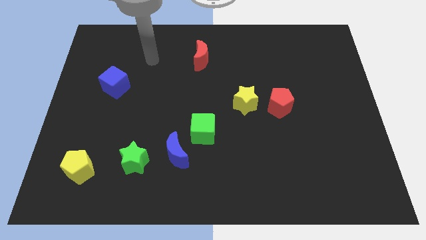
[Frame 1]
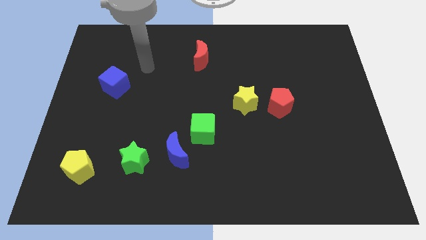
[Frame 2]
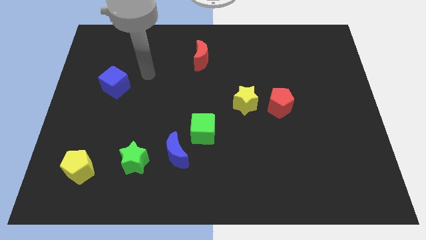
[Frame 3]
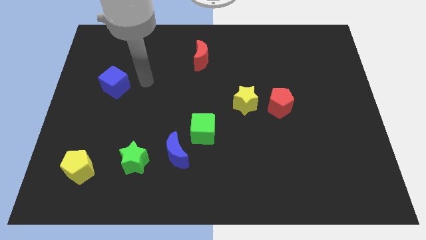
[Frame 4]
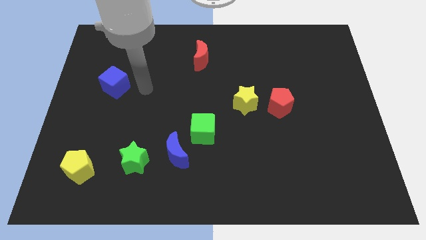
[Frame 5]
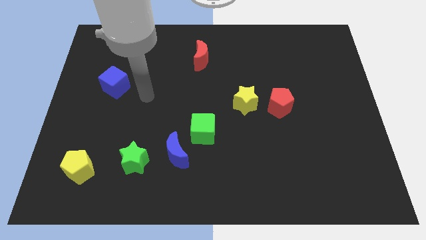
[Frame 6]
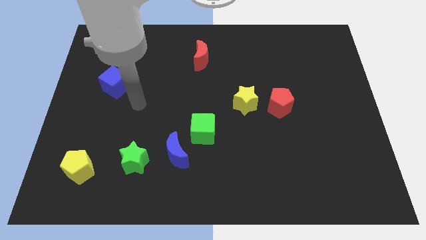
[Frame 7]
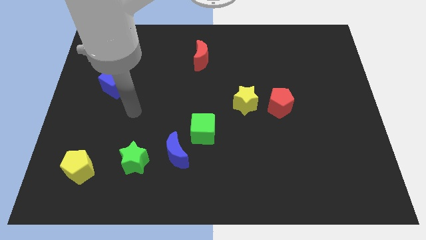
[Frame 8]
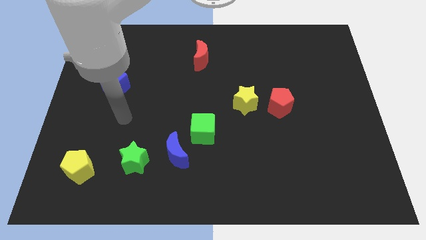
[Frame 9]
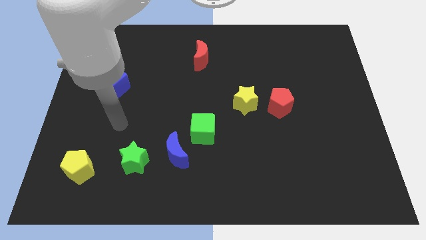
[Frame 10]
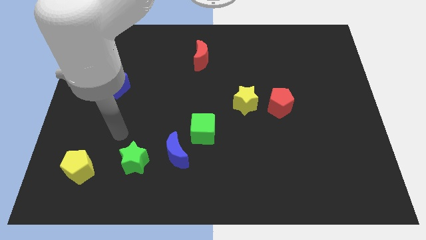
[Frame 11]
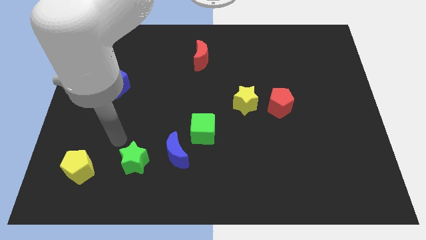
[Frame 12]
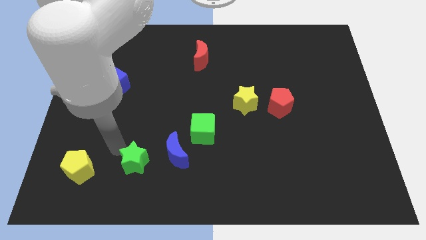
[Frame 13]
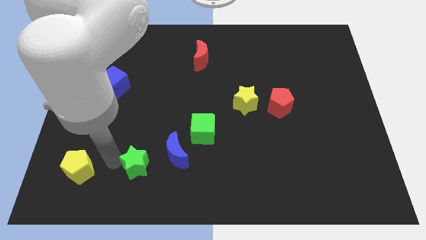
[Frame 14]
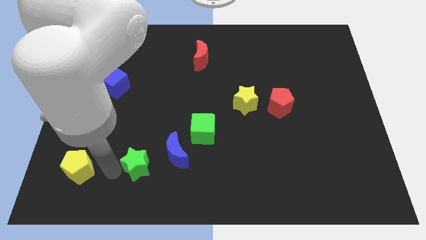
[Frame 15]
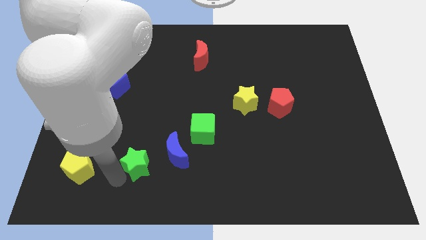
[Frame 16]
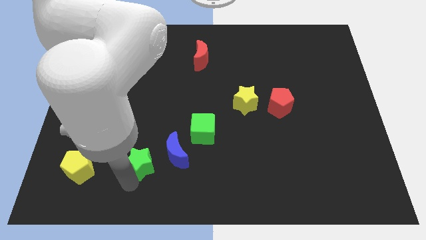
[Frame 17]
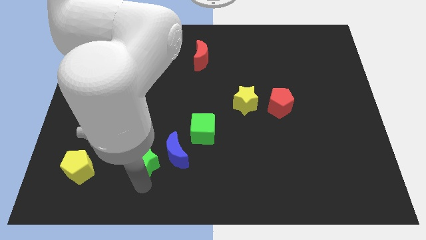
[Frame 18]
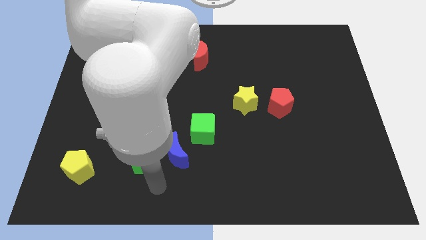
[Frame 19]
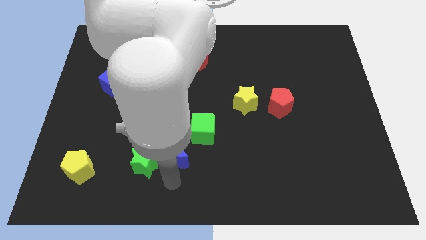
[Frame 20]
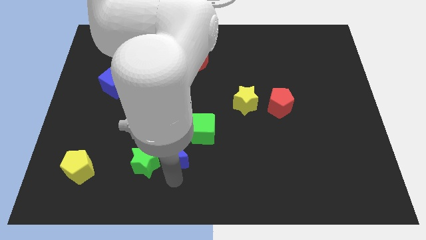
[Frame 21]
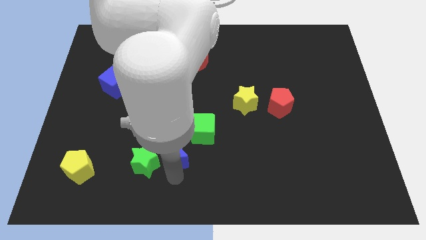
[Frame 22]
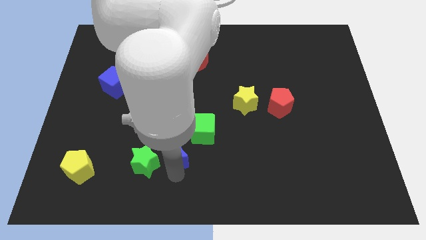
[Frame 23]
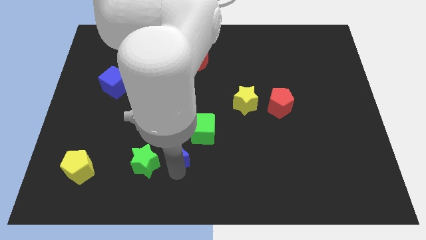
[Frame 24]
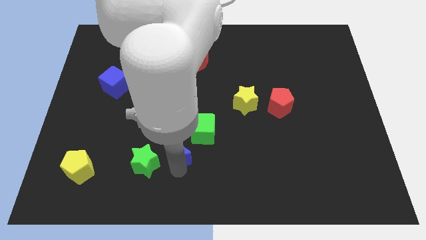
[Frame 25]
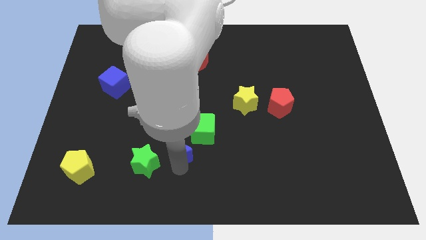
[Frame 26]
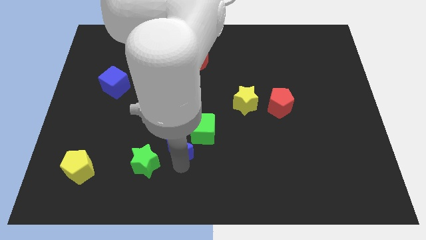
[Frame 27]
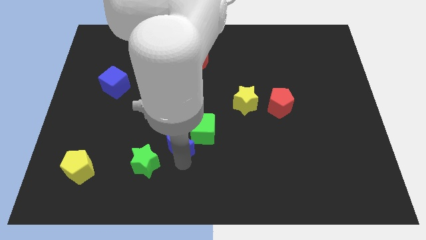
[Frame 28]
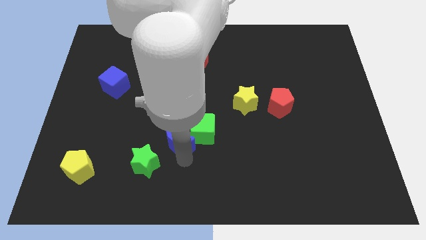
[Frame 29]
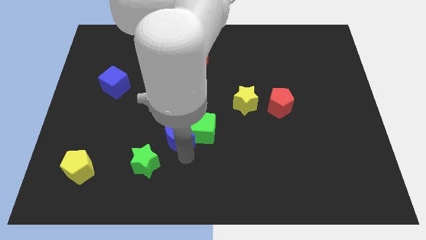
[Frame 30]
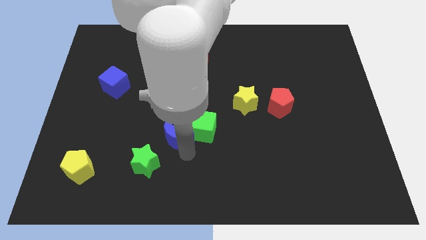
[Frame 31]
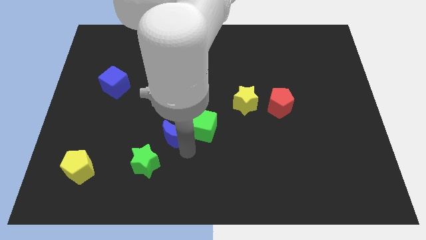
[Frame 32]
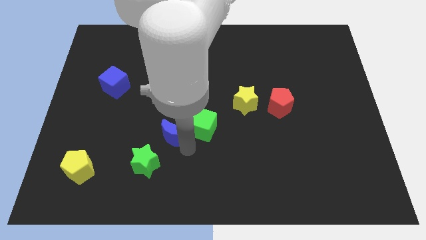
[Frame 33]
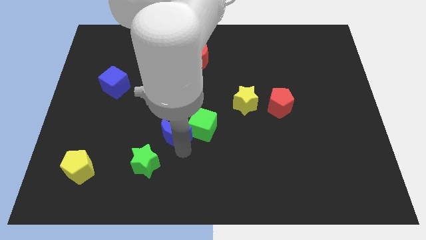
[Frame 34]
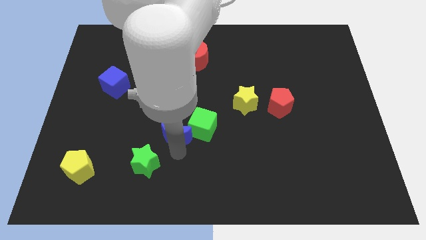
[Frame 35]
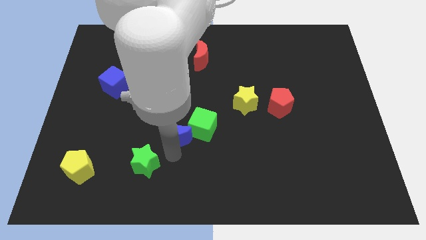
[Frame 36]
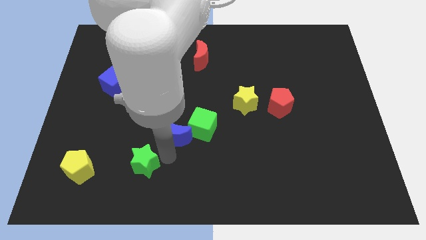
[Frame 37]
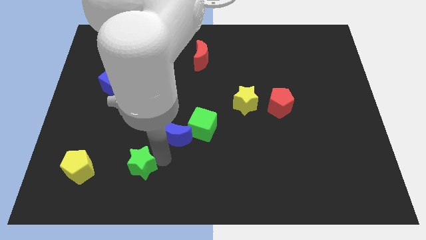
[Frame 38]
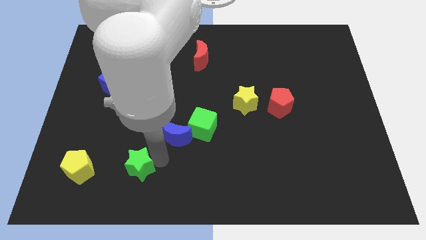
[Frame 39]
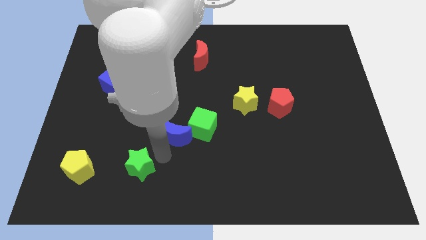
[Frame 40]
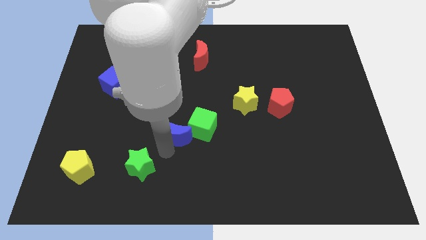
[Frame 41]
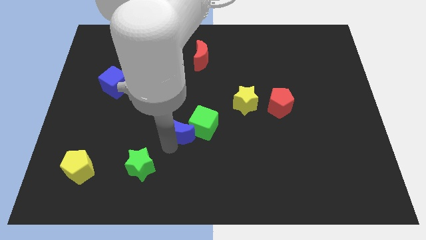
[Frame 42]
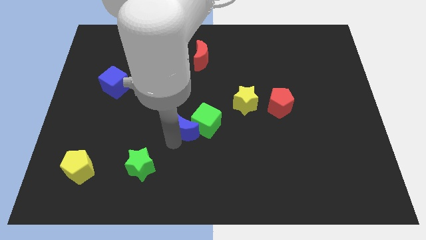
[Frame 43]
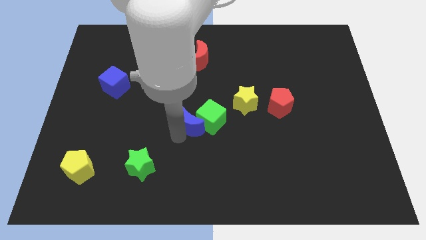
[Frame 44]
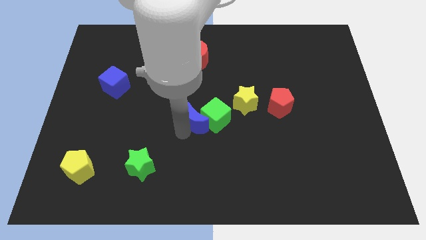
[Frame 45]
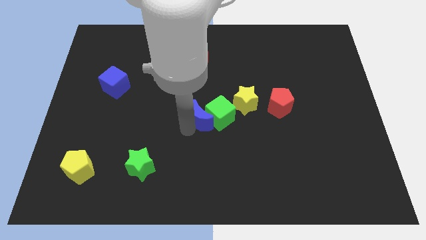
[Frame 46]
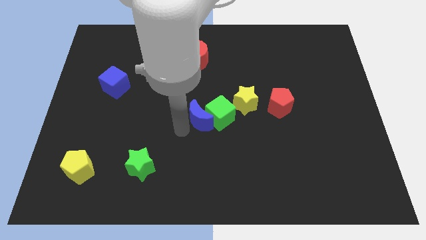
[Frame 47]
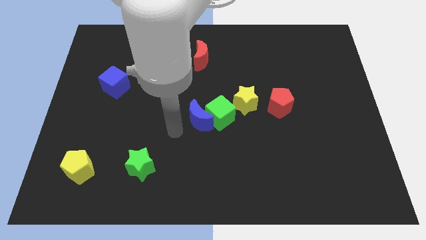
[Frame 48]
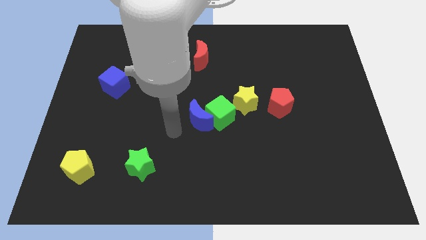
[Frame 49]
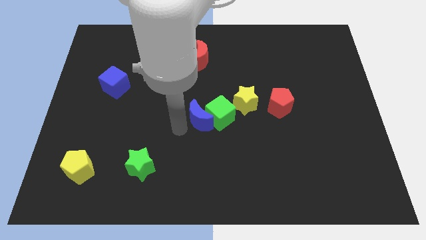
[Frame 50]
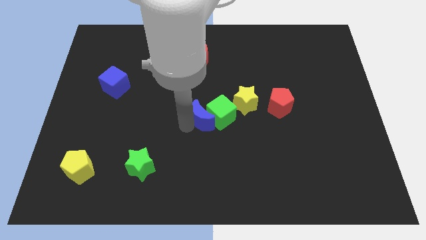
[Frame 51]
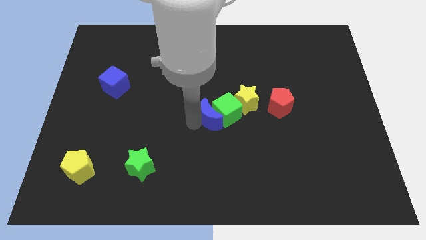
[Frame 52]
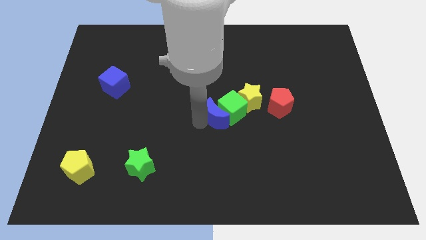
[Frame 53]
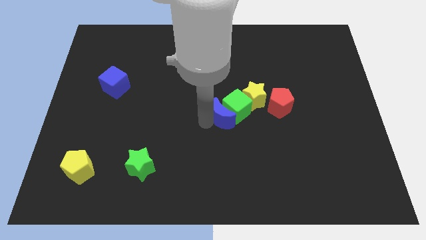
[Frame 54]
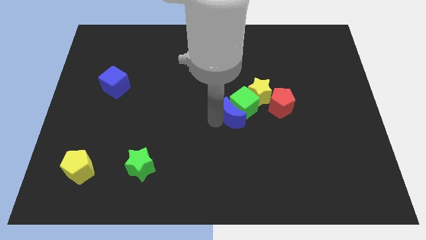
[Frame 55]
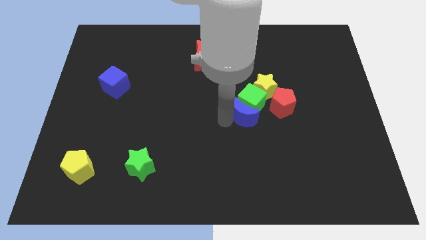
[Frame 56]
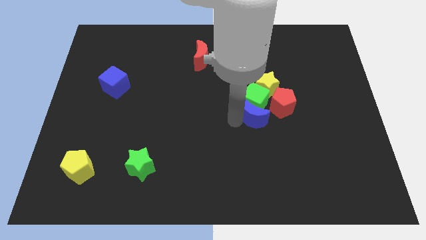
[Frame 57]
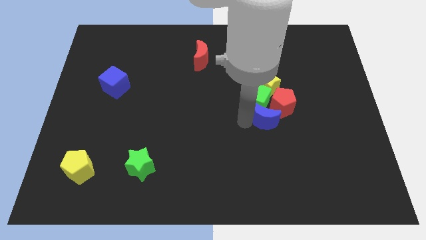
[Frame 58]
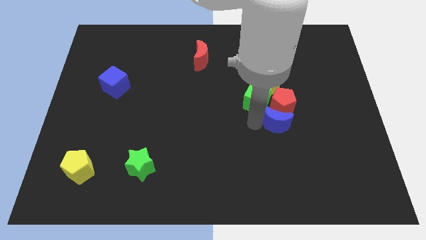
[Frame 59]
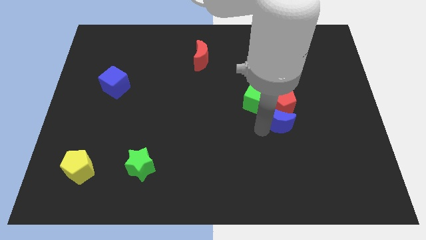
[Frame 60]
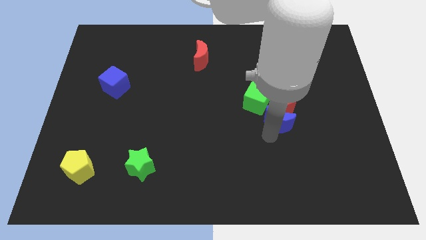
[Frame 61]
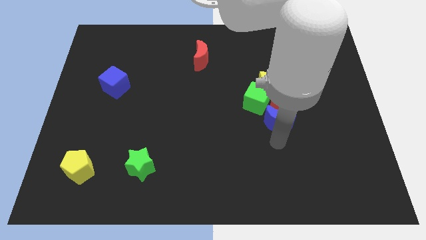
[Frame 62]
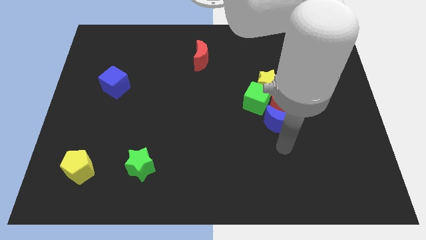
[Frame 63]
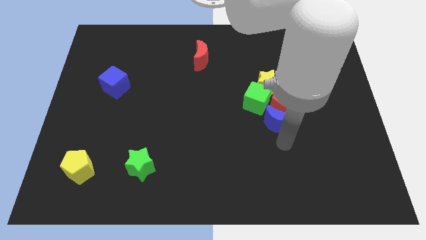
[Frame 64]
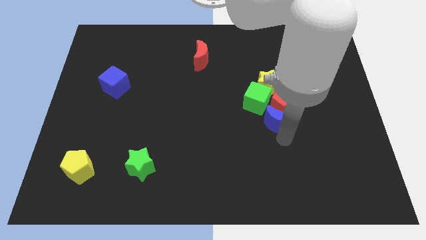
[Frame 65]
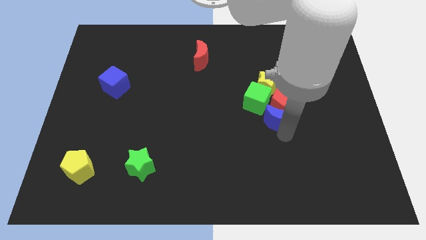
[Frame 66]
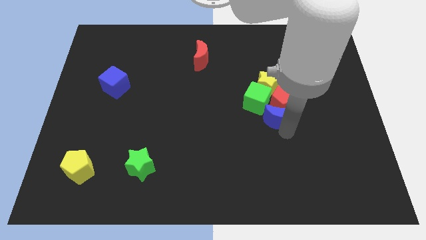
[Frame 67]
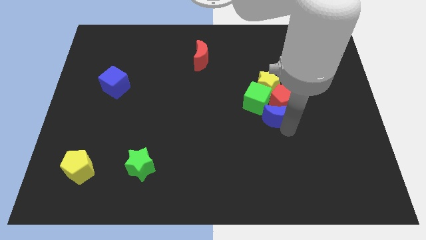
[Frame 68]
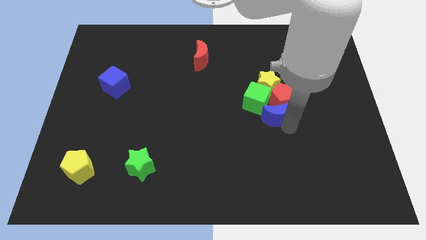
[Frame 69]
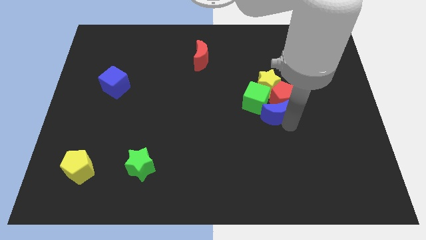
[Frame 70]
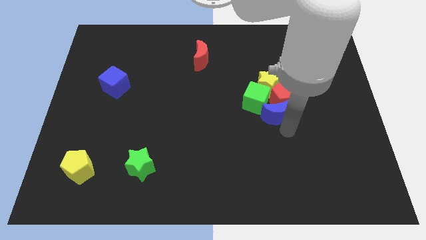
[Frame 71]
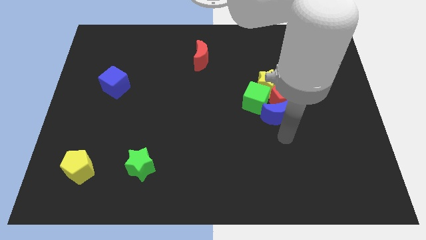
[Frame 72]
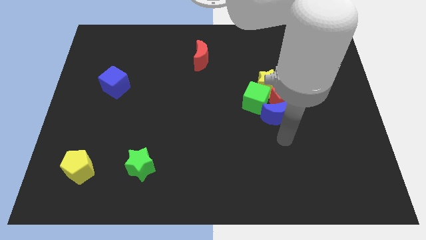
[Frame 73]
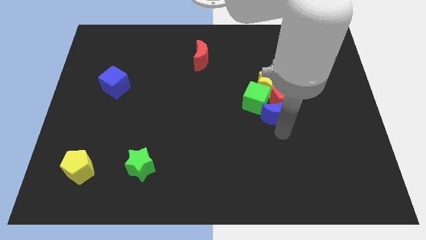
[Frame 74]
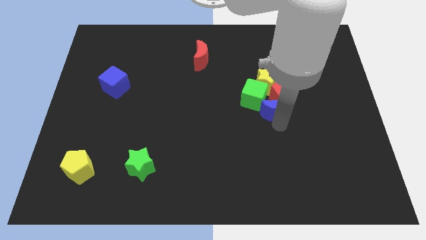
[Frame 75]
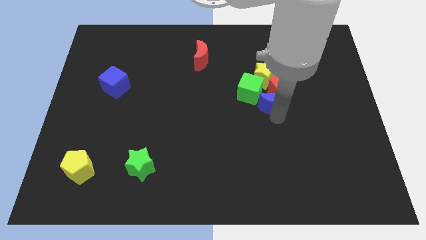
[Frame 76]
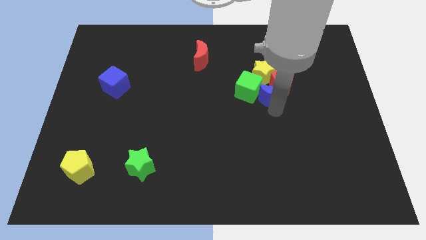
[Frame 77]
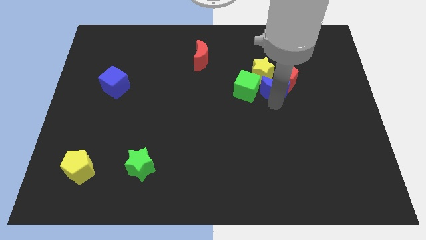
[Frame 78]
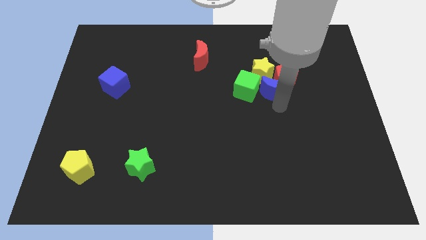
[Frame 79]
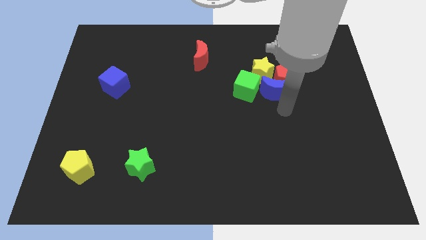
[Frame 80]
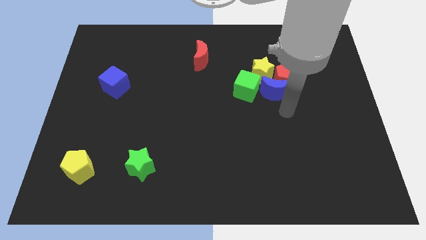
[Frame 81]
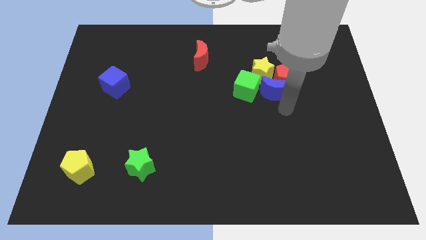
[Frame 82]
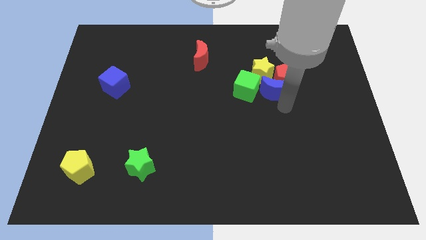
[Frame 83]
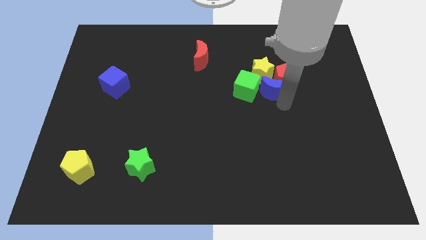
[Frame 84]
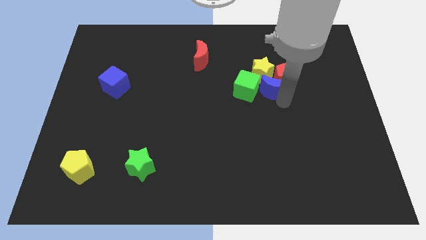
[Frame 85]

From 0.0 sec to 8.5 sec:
put the blue moon close to the yellow star
